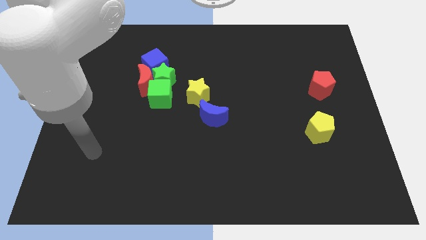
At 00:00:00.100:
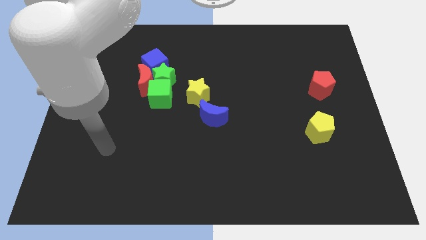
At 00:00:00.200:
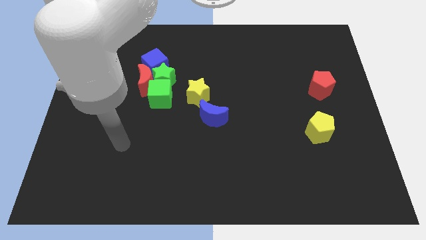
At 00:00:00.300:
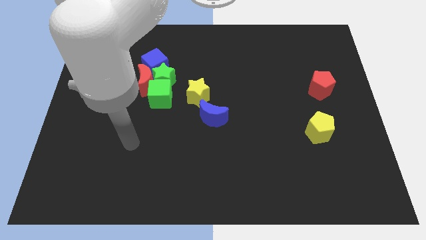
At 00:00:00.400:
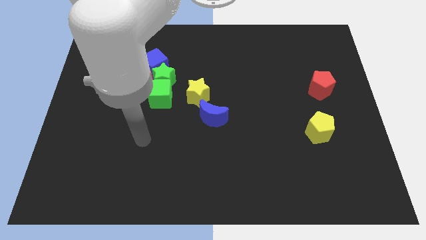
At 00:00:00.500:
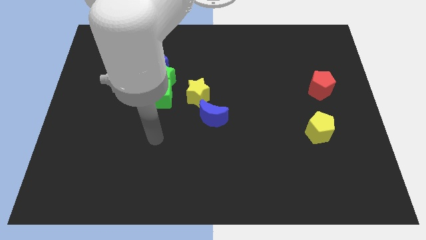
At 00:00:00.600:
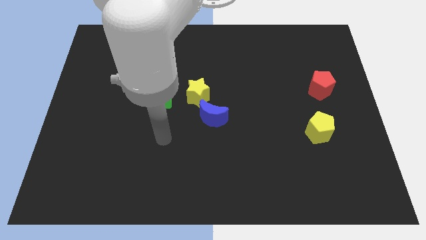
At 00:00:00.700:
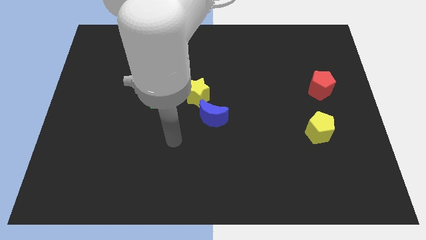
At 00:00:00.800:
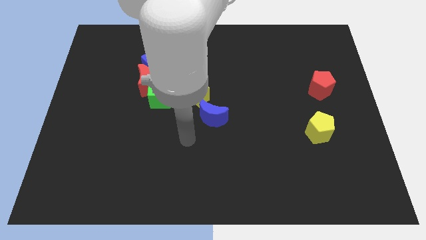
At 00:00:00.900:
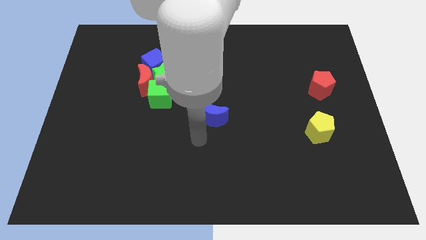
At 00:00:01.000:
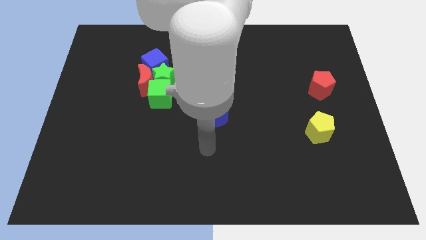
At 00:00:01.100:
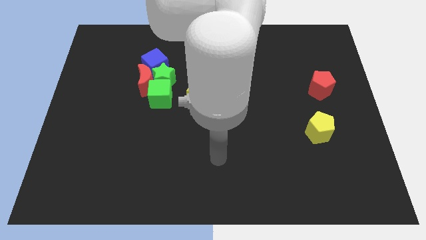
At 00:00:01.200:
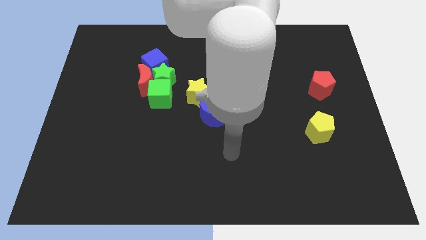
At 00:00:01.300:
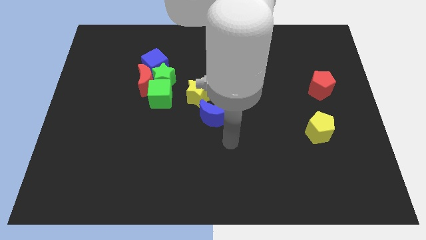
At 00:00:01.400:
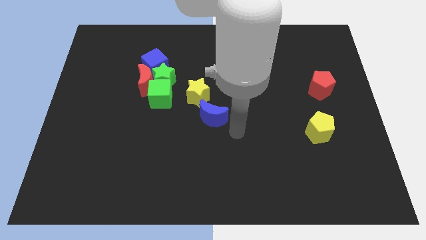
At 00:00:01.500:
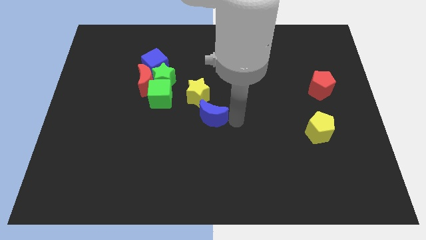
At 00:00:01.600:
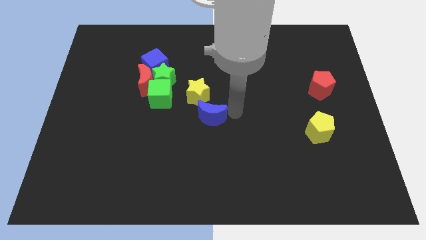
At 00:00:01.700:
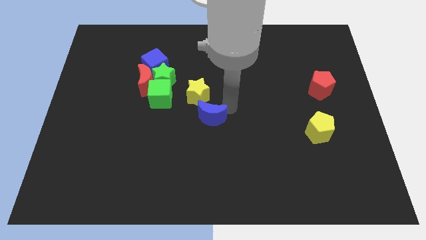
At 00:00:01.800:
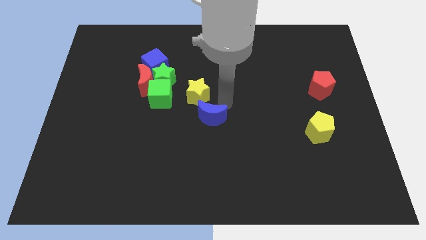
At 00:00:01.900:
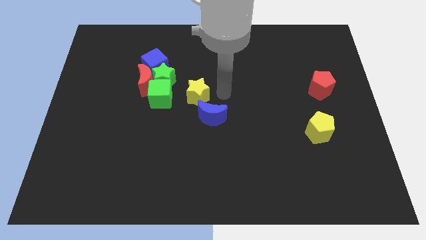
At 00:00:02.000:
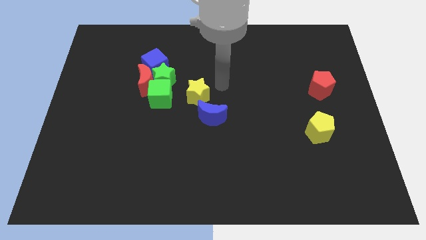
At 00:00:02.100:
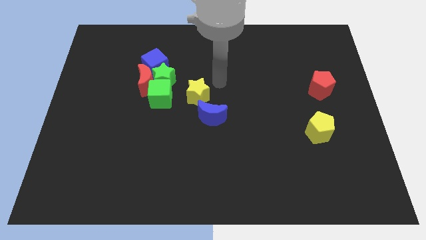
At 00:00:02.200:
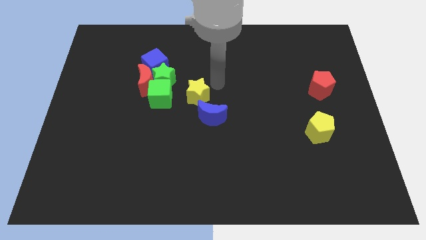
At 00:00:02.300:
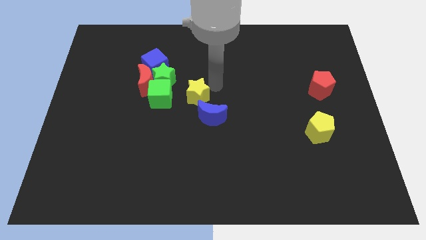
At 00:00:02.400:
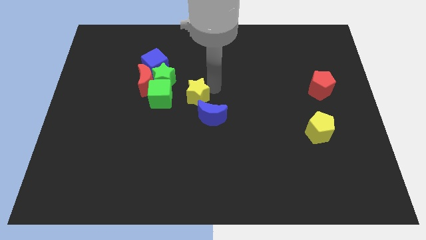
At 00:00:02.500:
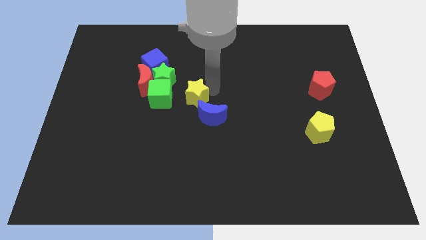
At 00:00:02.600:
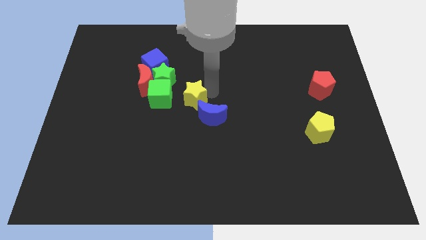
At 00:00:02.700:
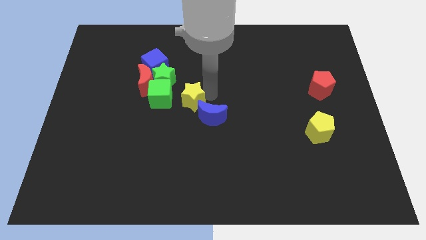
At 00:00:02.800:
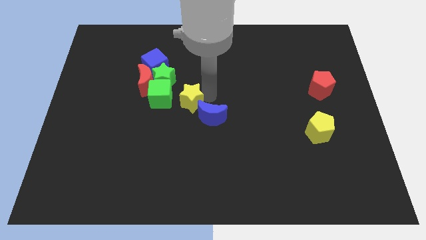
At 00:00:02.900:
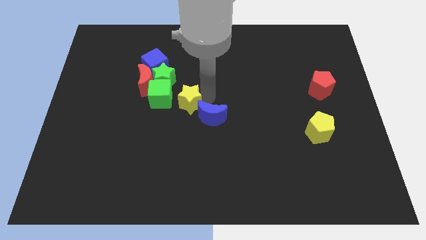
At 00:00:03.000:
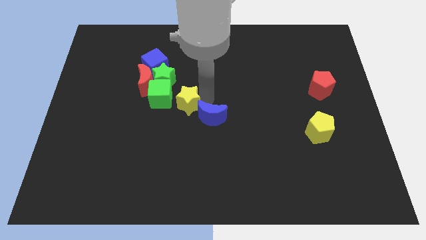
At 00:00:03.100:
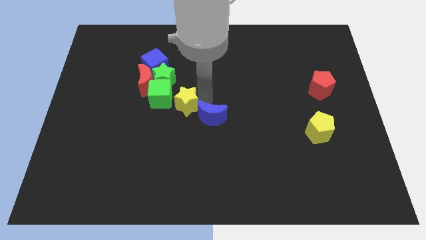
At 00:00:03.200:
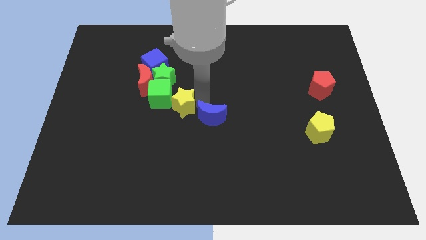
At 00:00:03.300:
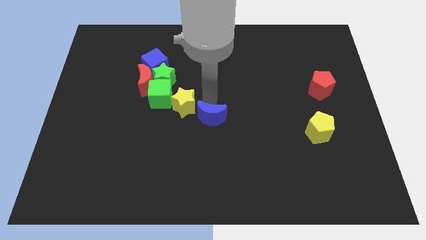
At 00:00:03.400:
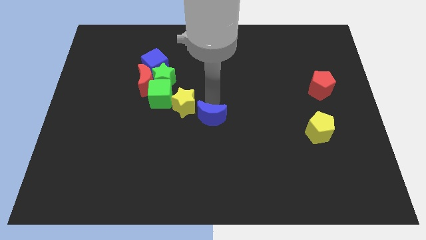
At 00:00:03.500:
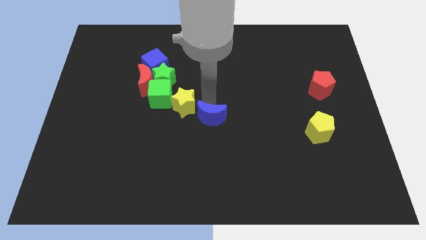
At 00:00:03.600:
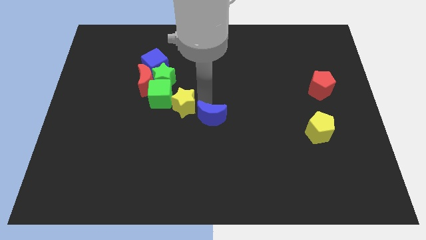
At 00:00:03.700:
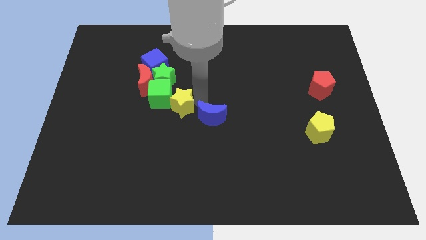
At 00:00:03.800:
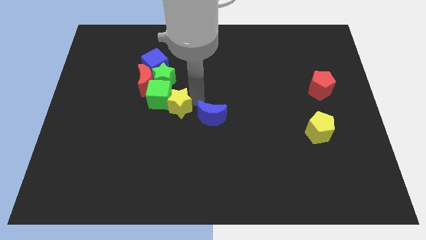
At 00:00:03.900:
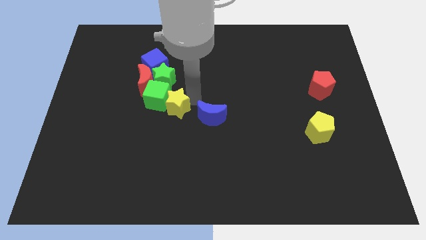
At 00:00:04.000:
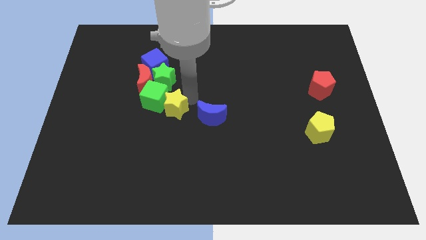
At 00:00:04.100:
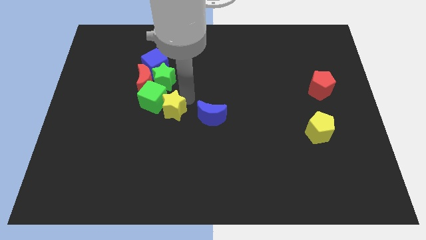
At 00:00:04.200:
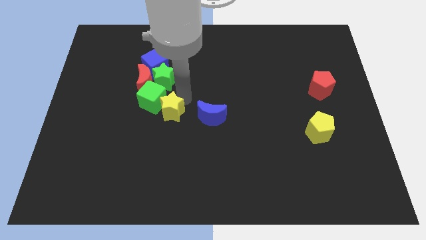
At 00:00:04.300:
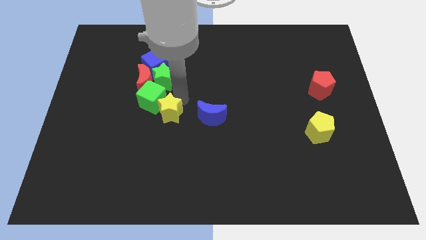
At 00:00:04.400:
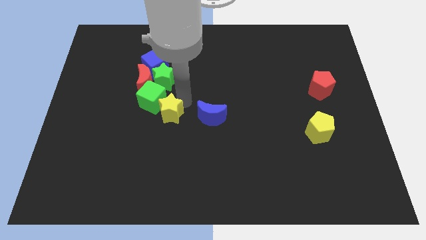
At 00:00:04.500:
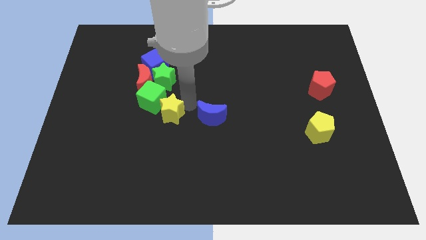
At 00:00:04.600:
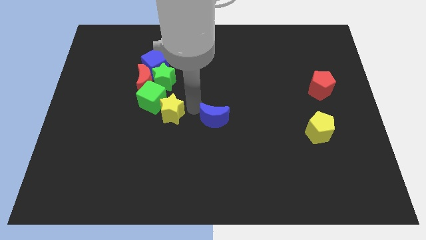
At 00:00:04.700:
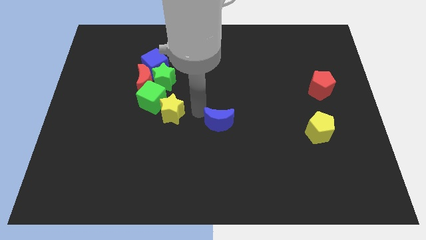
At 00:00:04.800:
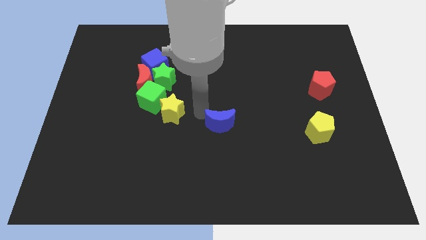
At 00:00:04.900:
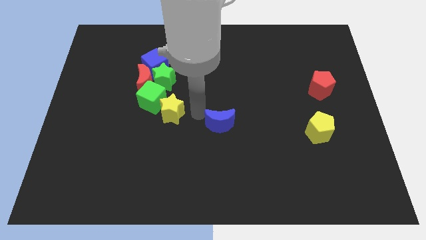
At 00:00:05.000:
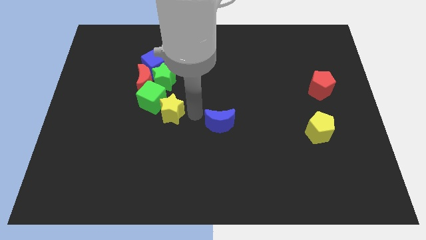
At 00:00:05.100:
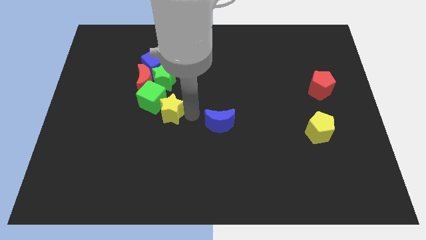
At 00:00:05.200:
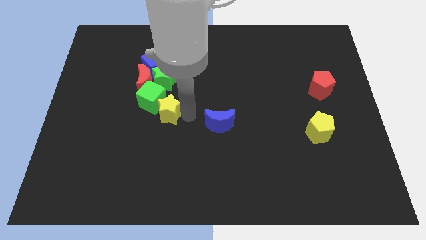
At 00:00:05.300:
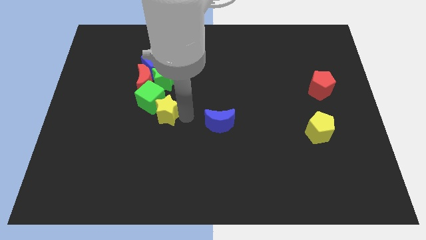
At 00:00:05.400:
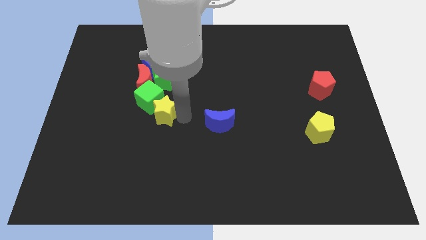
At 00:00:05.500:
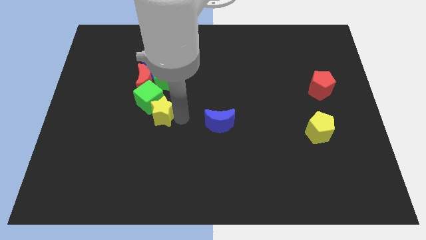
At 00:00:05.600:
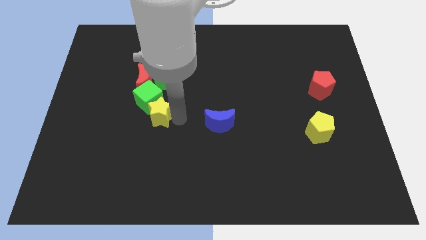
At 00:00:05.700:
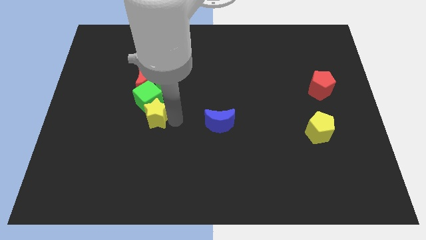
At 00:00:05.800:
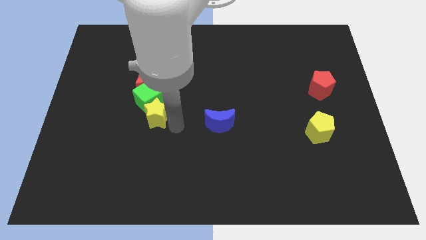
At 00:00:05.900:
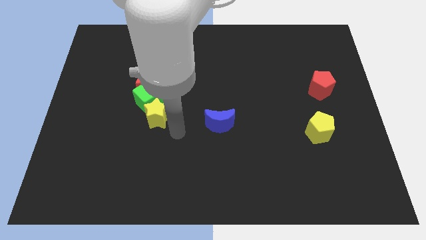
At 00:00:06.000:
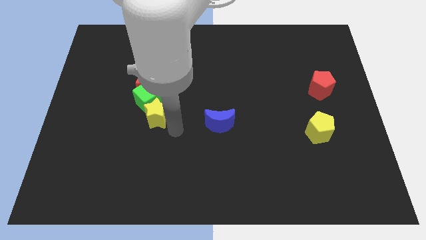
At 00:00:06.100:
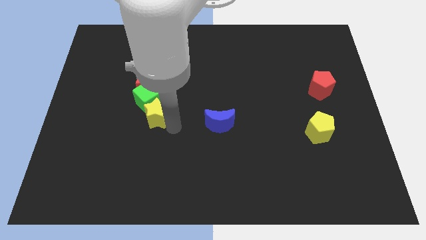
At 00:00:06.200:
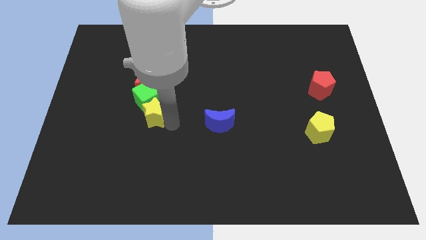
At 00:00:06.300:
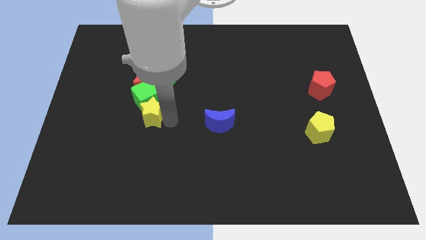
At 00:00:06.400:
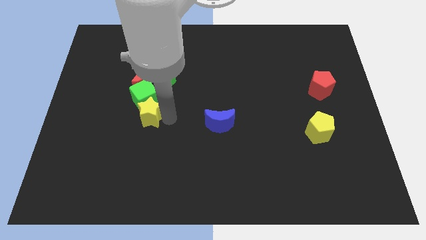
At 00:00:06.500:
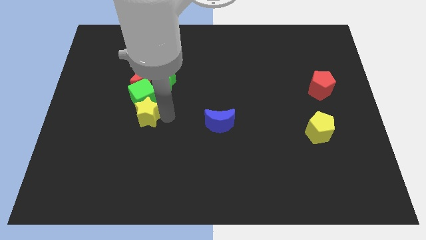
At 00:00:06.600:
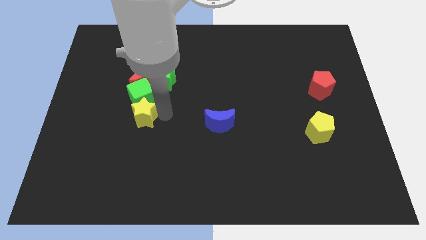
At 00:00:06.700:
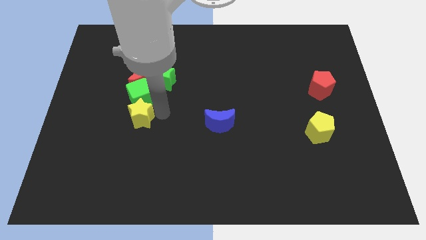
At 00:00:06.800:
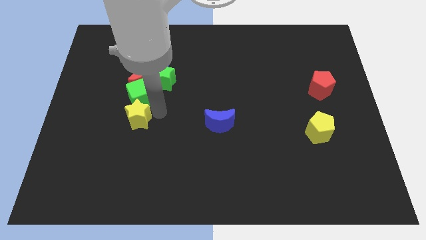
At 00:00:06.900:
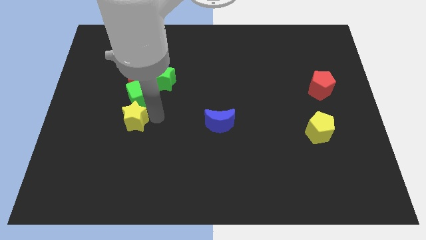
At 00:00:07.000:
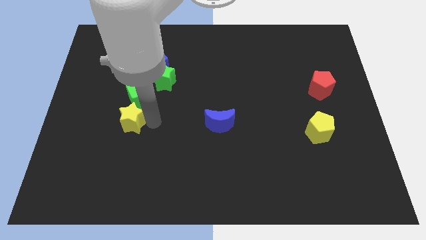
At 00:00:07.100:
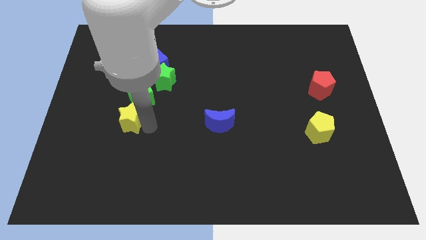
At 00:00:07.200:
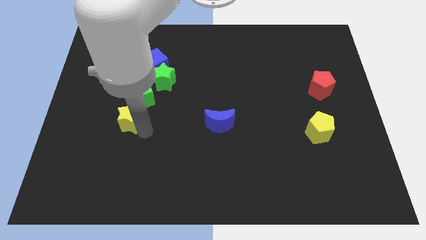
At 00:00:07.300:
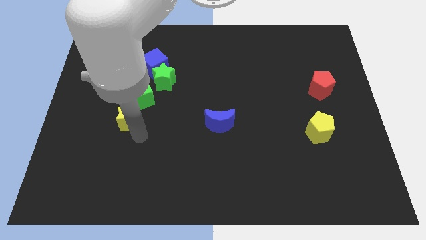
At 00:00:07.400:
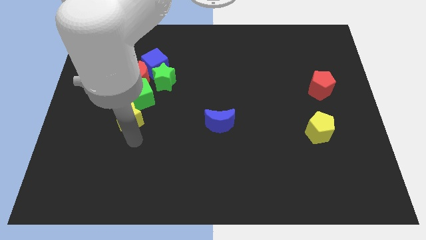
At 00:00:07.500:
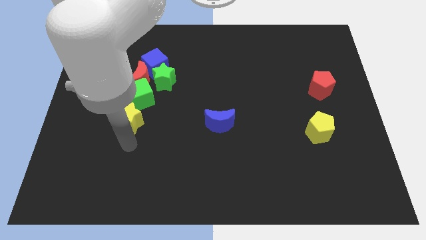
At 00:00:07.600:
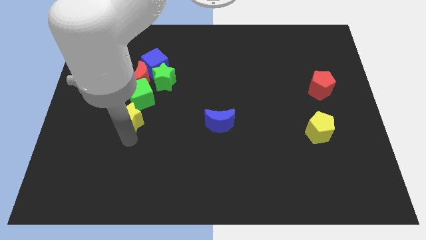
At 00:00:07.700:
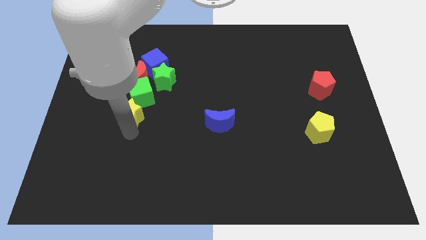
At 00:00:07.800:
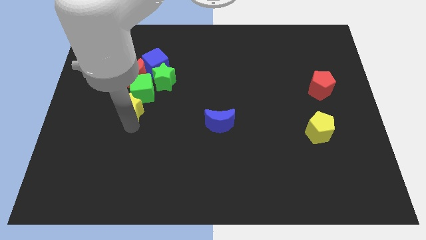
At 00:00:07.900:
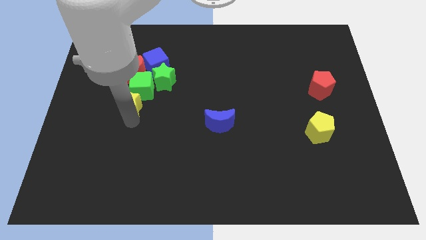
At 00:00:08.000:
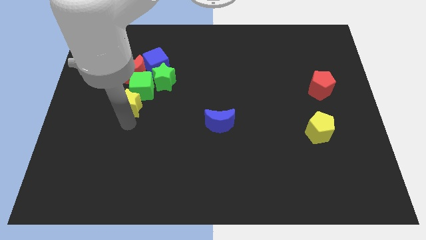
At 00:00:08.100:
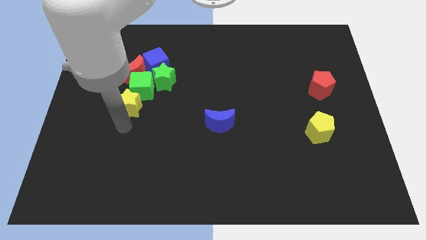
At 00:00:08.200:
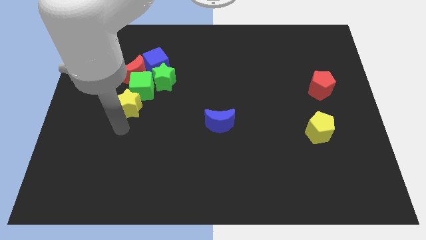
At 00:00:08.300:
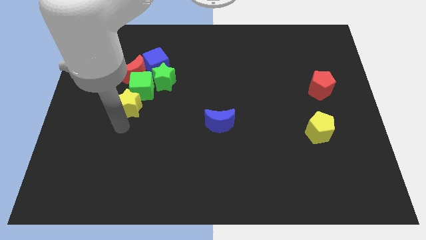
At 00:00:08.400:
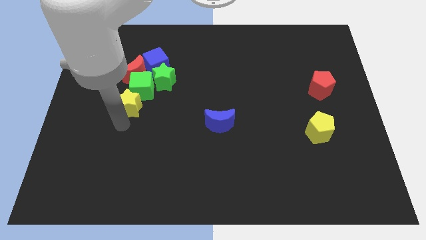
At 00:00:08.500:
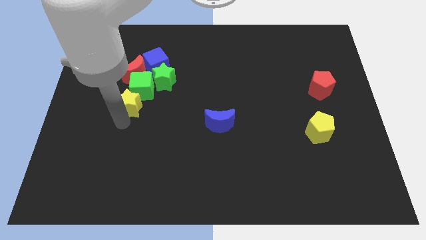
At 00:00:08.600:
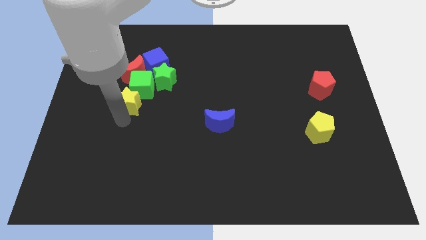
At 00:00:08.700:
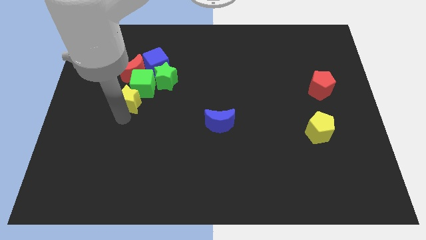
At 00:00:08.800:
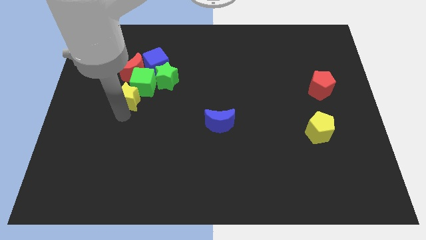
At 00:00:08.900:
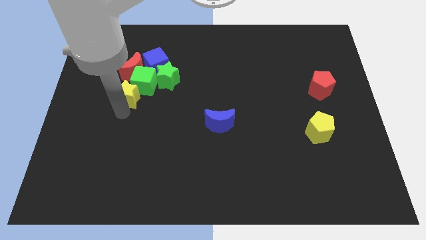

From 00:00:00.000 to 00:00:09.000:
push the yellow star diagonally down and to the left of the blue cube
